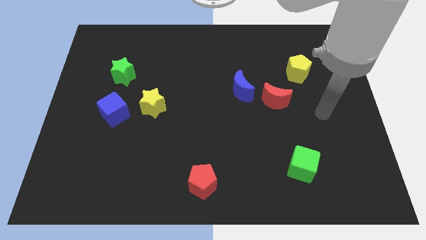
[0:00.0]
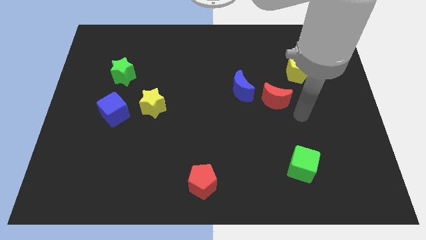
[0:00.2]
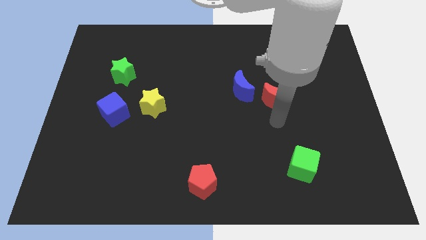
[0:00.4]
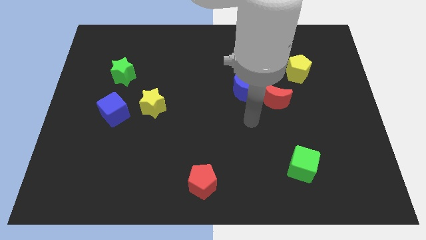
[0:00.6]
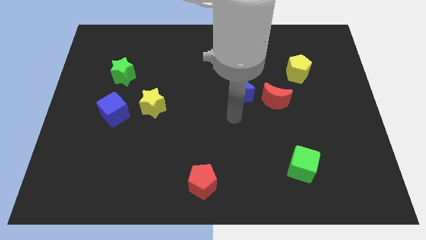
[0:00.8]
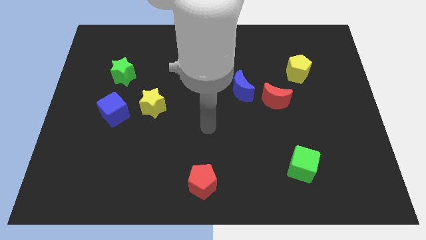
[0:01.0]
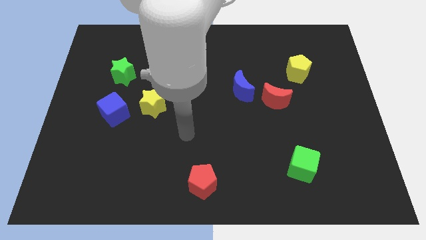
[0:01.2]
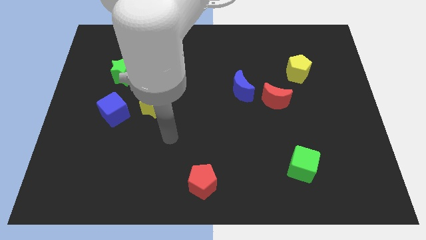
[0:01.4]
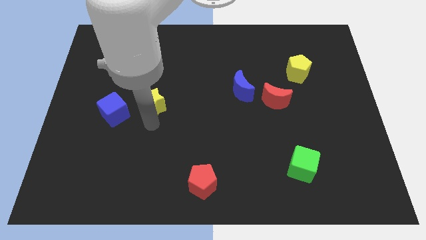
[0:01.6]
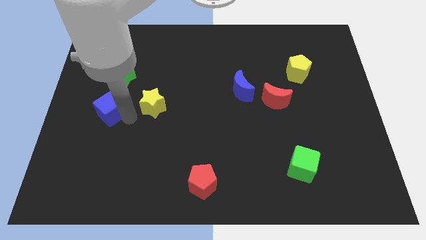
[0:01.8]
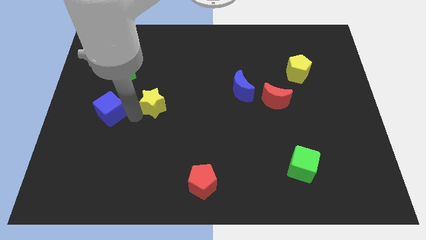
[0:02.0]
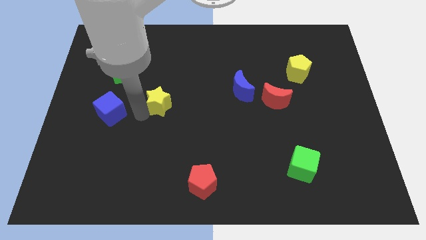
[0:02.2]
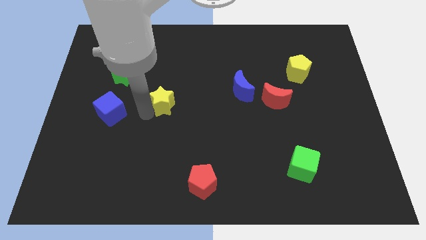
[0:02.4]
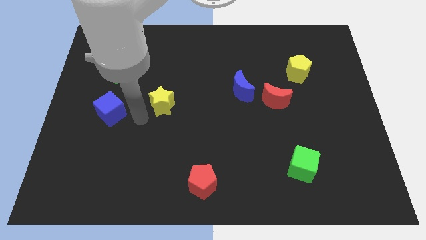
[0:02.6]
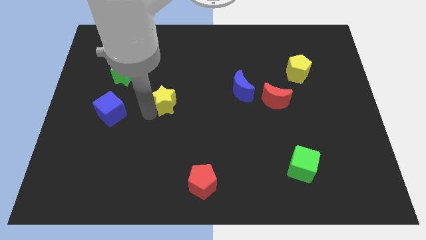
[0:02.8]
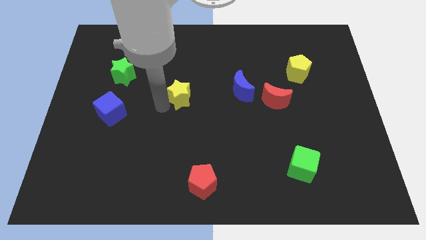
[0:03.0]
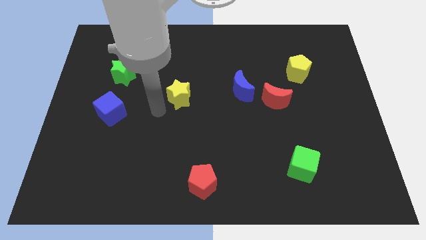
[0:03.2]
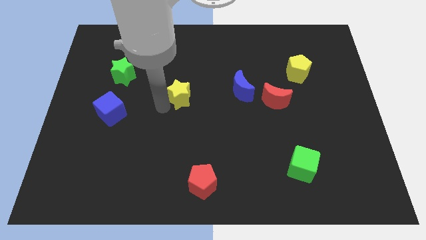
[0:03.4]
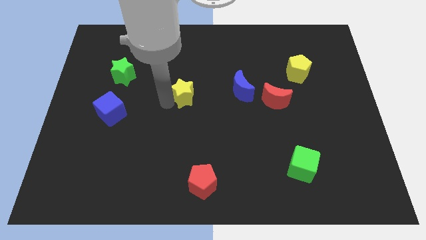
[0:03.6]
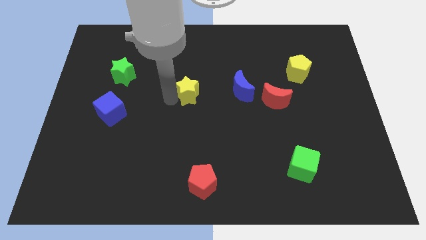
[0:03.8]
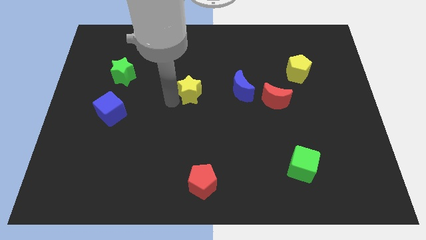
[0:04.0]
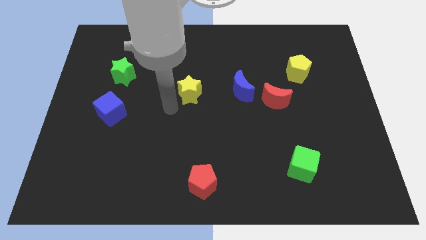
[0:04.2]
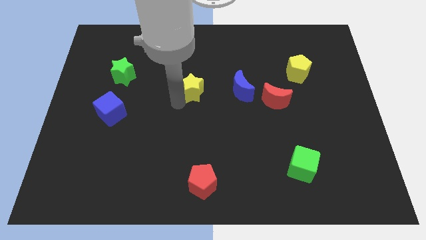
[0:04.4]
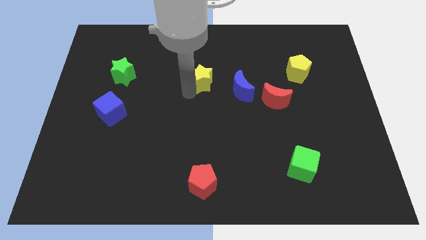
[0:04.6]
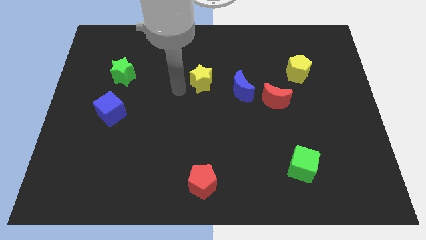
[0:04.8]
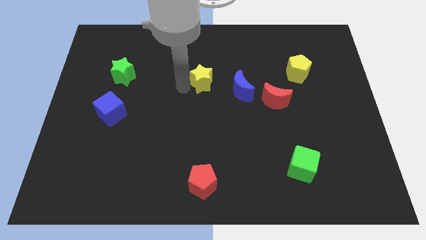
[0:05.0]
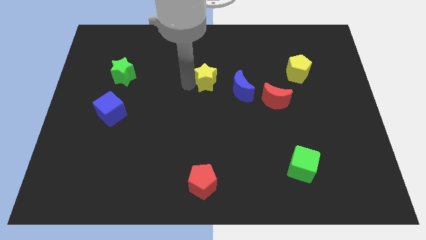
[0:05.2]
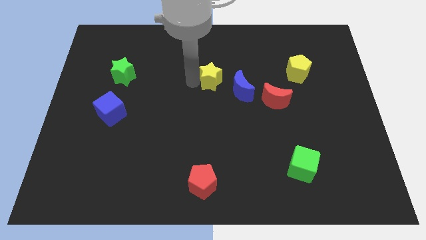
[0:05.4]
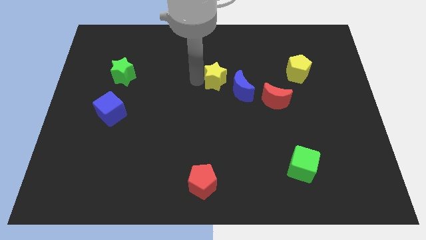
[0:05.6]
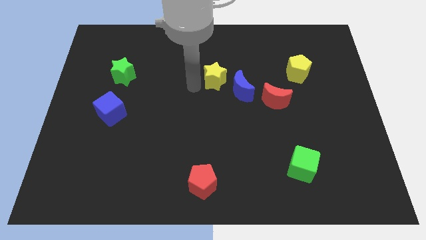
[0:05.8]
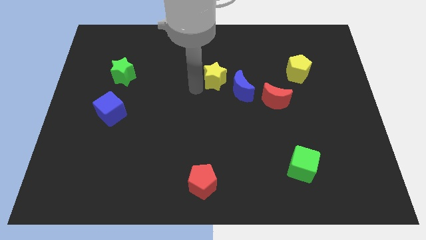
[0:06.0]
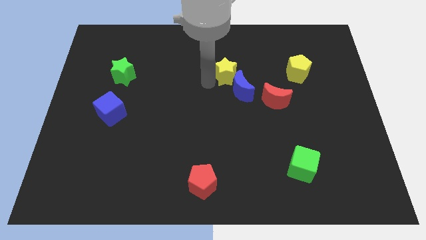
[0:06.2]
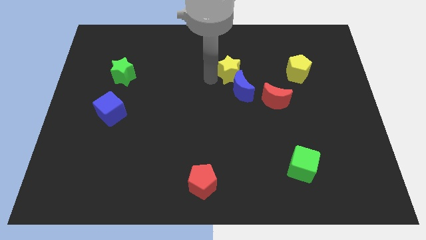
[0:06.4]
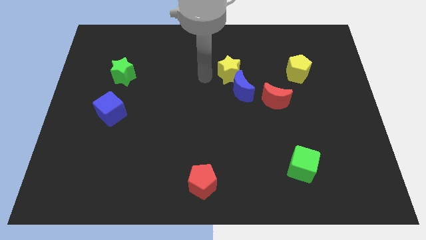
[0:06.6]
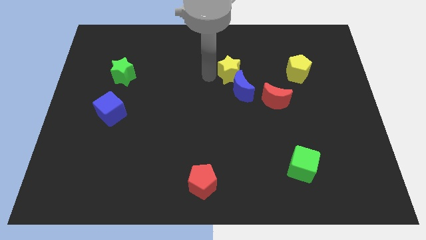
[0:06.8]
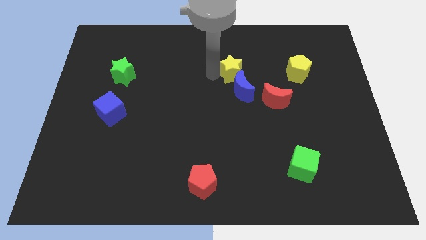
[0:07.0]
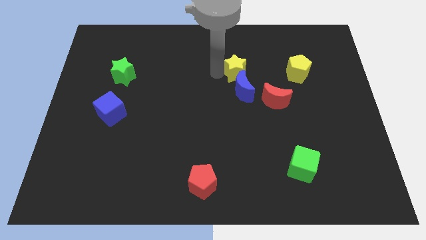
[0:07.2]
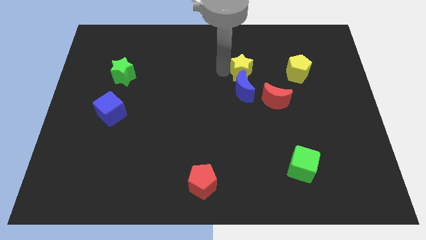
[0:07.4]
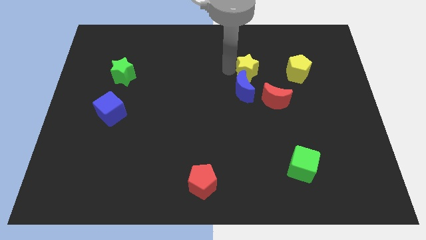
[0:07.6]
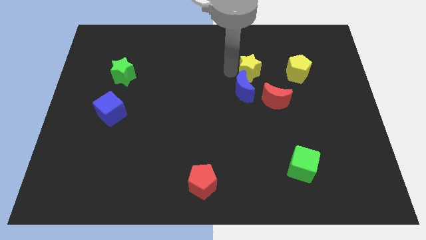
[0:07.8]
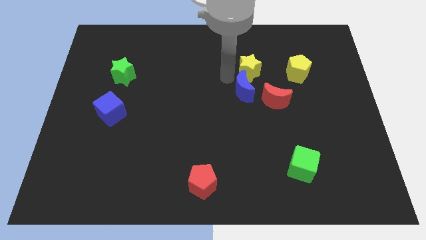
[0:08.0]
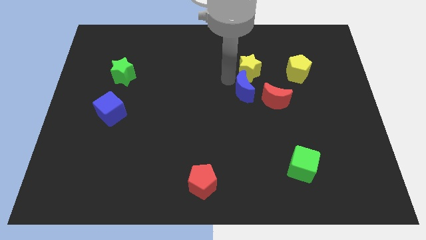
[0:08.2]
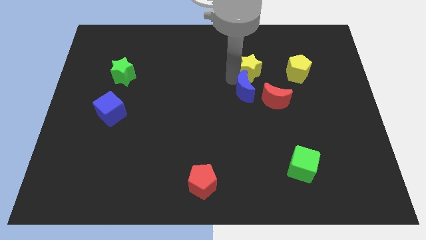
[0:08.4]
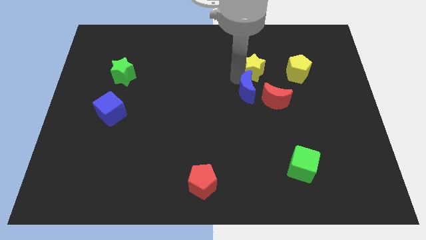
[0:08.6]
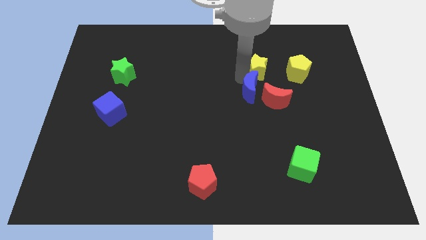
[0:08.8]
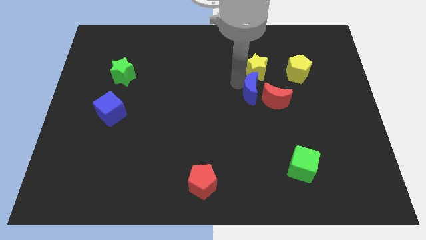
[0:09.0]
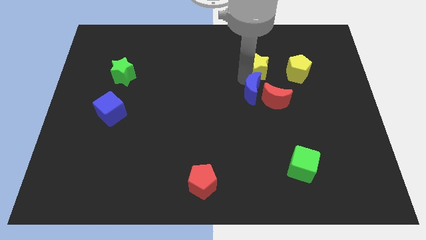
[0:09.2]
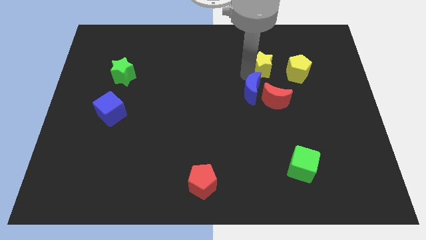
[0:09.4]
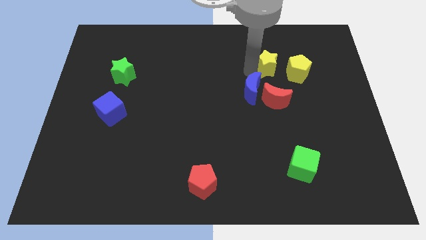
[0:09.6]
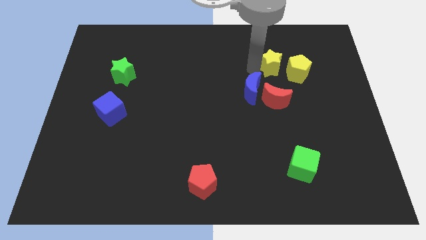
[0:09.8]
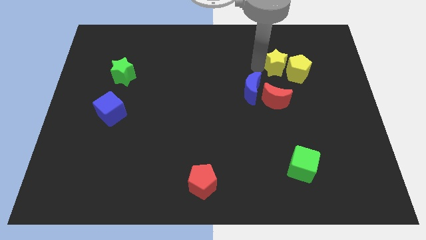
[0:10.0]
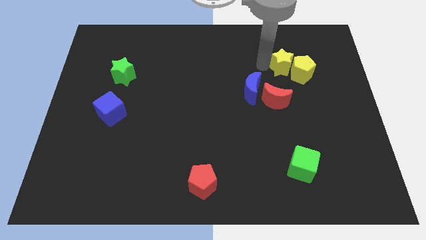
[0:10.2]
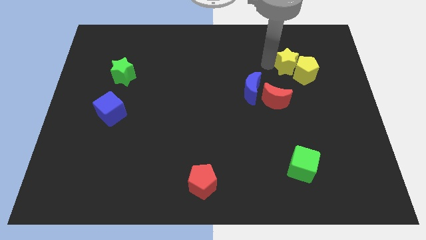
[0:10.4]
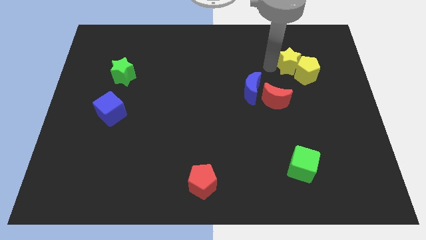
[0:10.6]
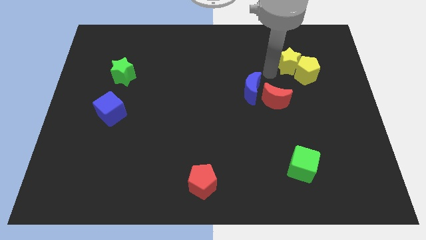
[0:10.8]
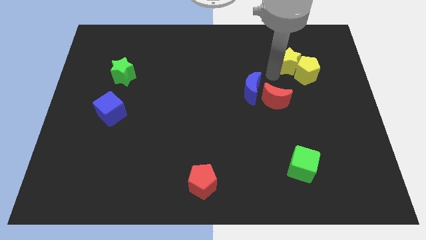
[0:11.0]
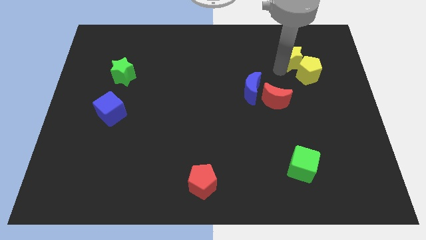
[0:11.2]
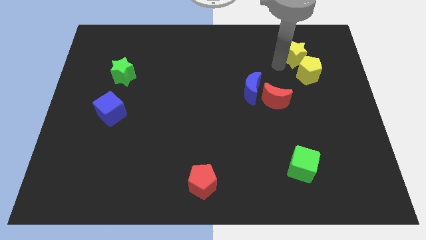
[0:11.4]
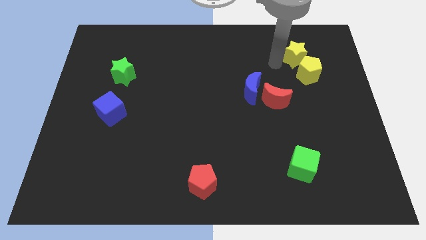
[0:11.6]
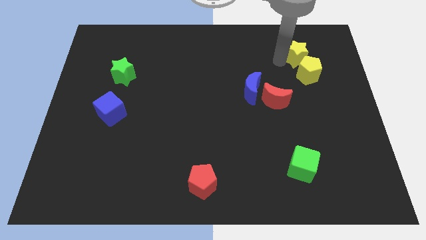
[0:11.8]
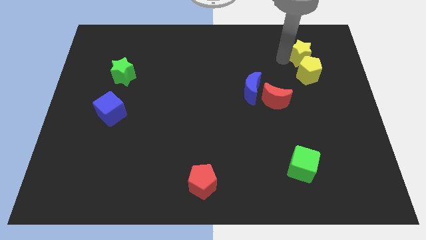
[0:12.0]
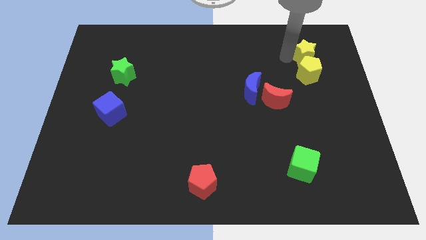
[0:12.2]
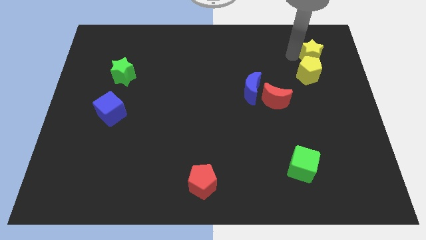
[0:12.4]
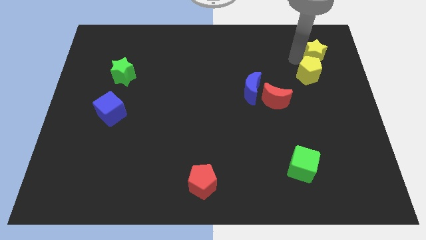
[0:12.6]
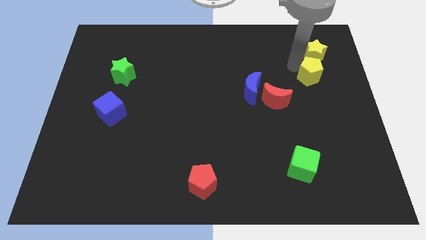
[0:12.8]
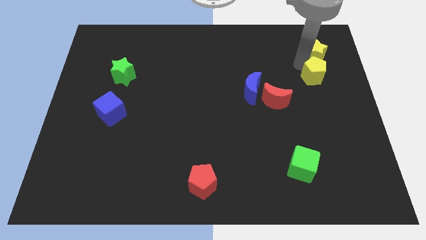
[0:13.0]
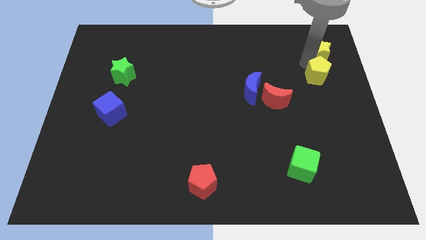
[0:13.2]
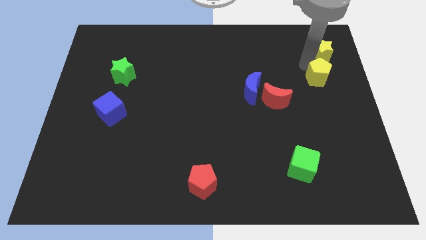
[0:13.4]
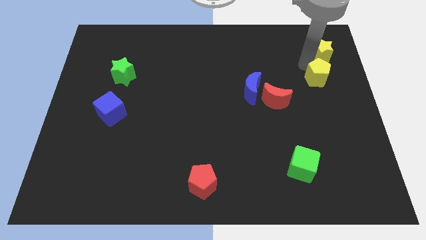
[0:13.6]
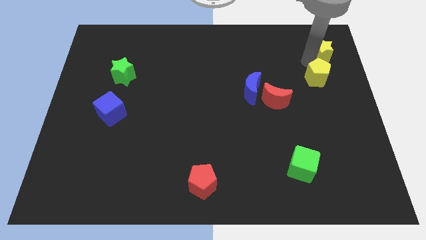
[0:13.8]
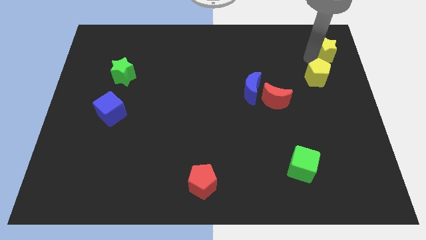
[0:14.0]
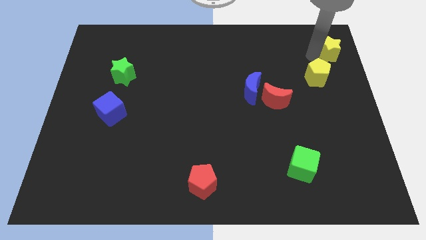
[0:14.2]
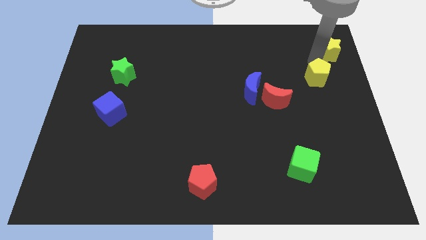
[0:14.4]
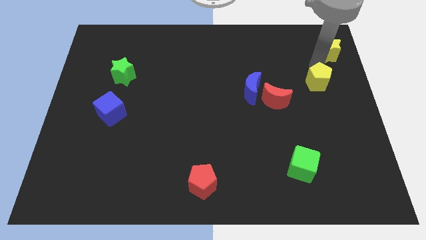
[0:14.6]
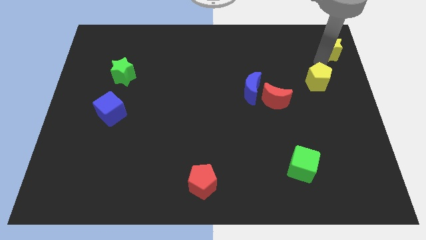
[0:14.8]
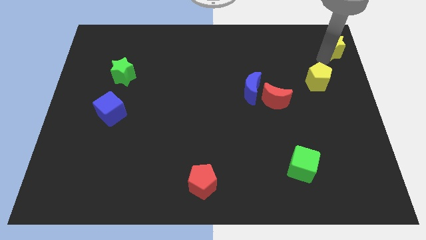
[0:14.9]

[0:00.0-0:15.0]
move the yellow star to the upper right corner
